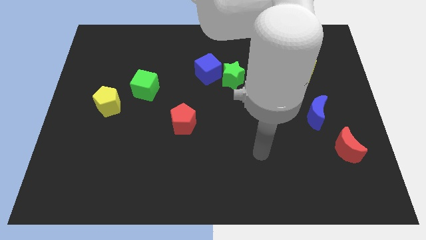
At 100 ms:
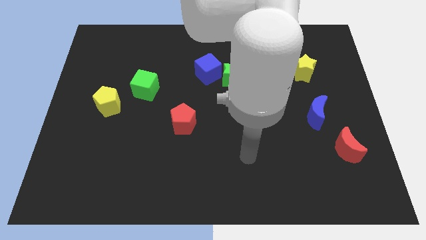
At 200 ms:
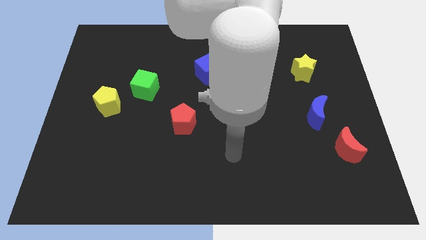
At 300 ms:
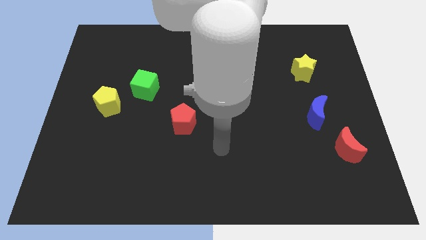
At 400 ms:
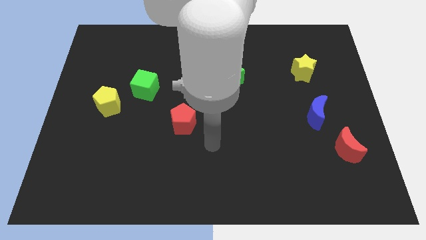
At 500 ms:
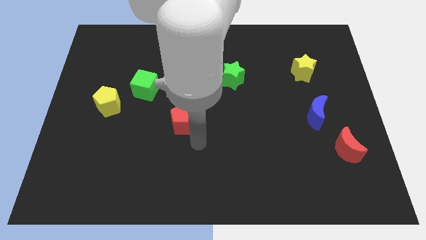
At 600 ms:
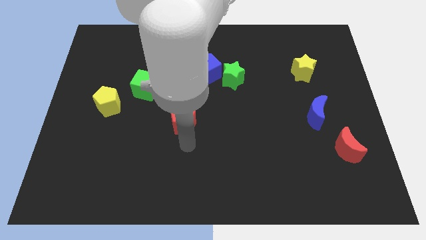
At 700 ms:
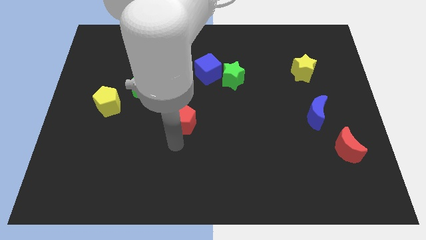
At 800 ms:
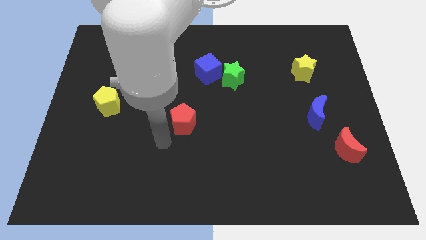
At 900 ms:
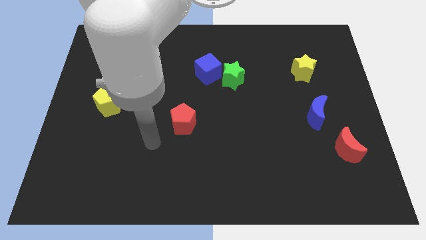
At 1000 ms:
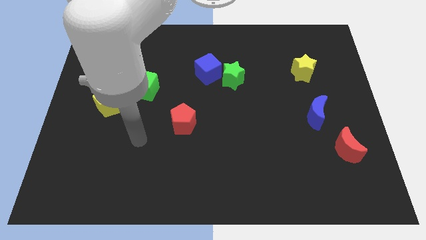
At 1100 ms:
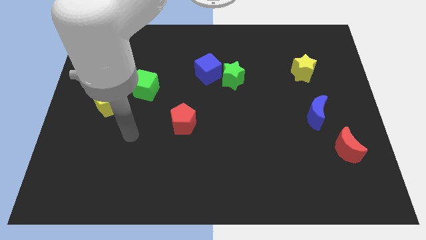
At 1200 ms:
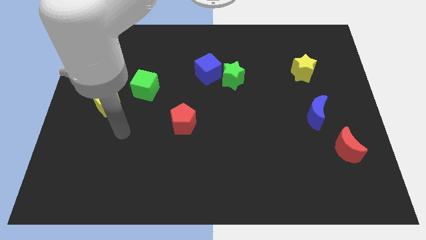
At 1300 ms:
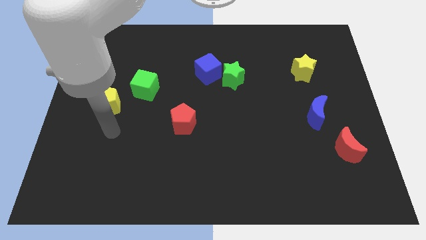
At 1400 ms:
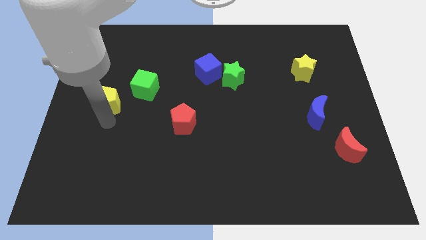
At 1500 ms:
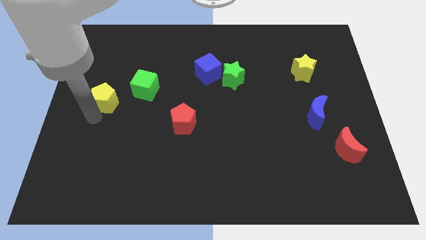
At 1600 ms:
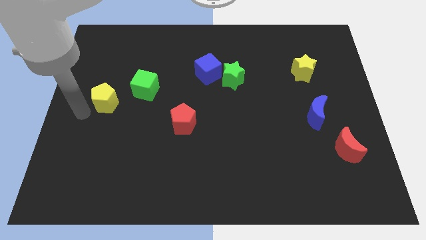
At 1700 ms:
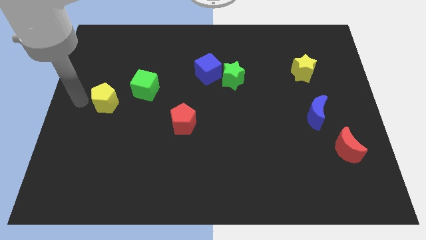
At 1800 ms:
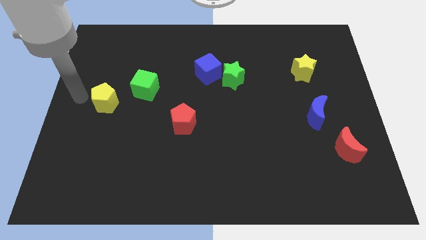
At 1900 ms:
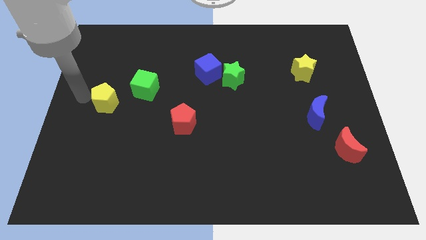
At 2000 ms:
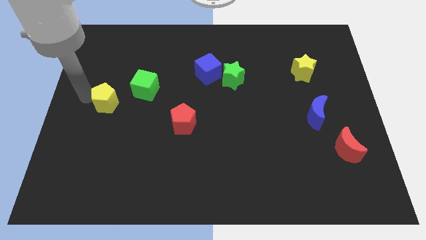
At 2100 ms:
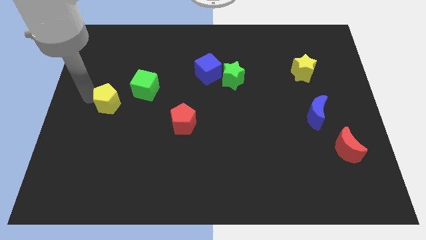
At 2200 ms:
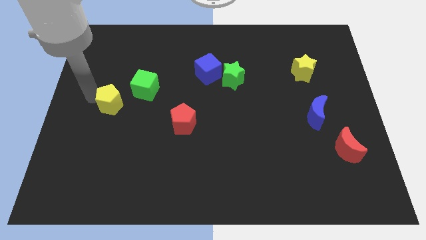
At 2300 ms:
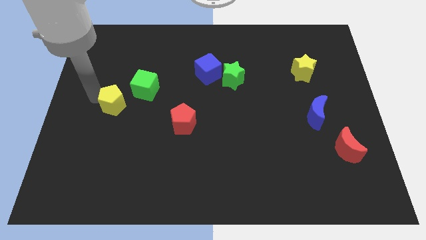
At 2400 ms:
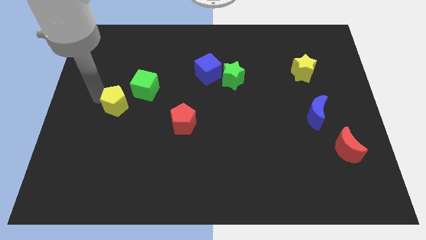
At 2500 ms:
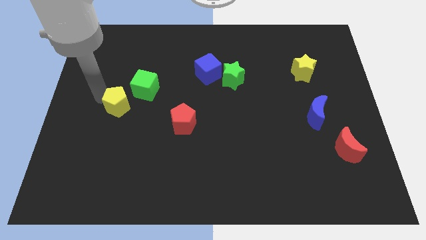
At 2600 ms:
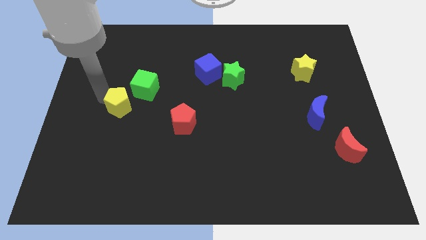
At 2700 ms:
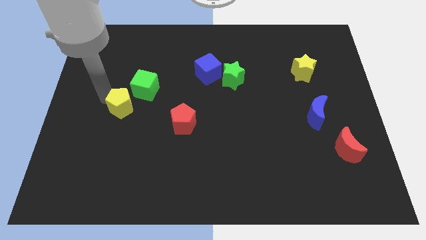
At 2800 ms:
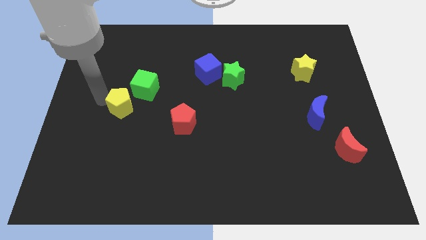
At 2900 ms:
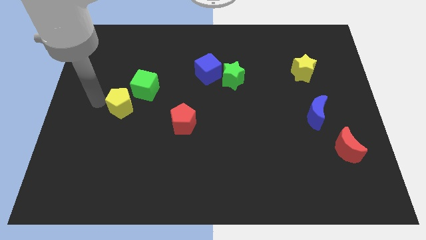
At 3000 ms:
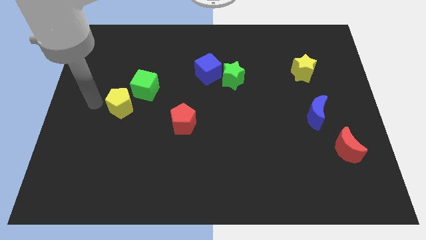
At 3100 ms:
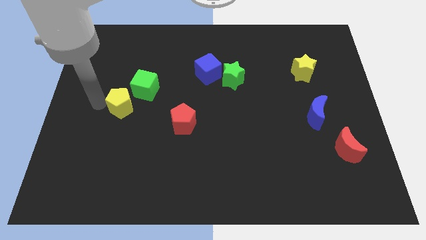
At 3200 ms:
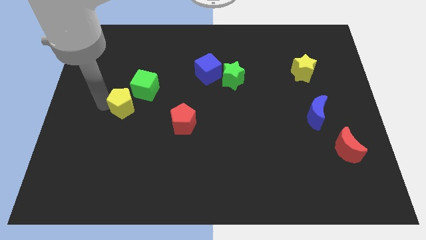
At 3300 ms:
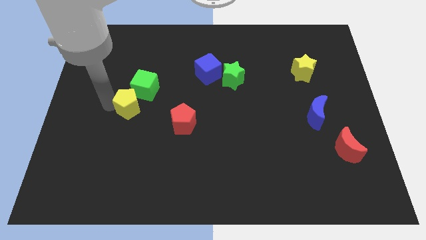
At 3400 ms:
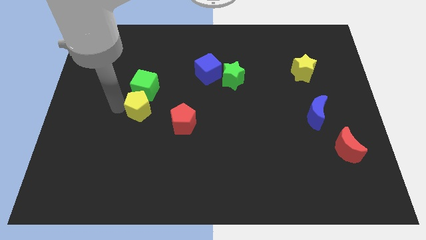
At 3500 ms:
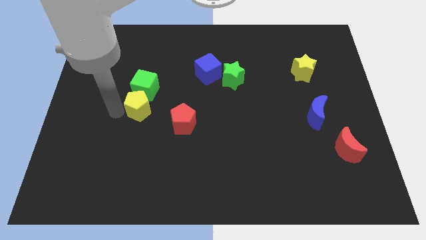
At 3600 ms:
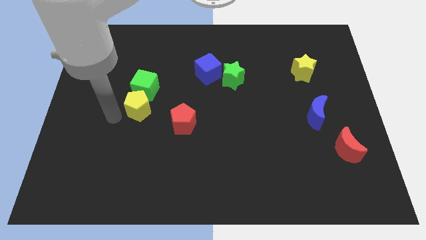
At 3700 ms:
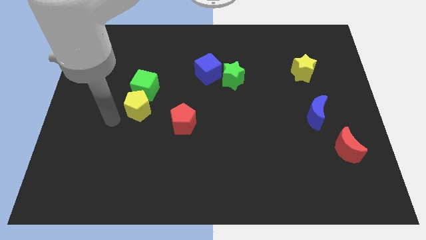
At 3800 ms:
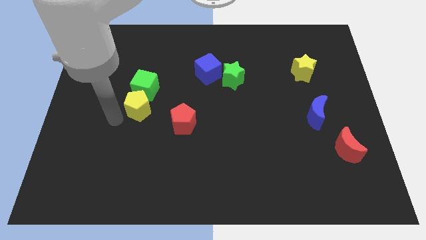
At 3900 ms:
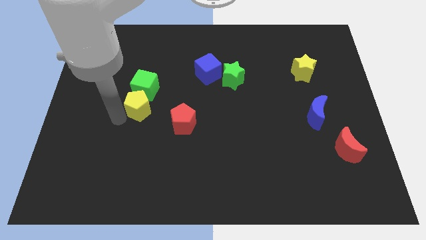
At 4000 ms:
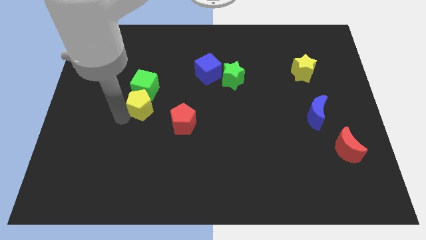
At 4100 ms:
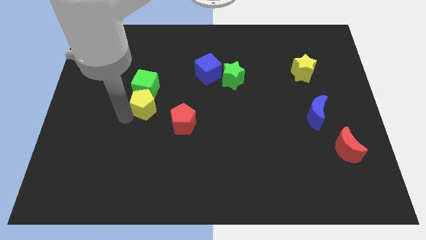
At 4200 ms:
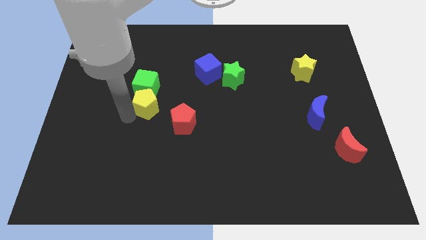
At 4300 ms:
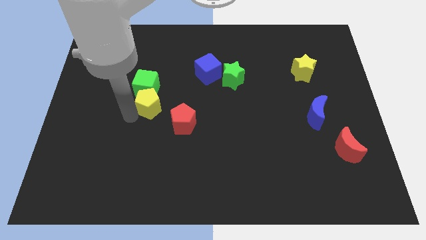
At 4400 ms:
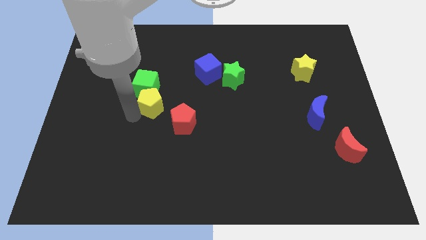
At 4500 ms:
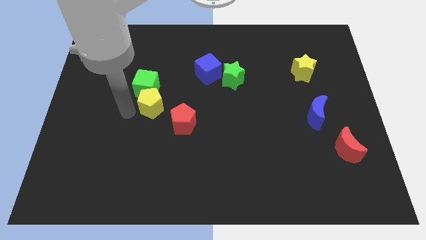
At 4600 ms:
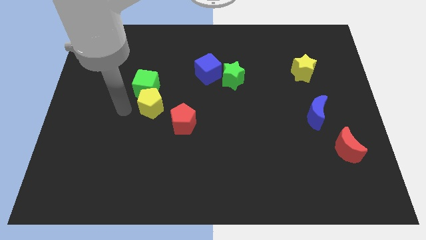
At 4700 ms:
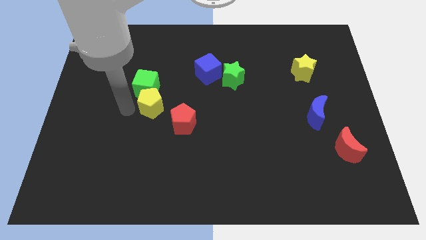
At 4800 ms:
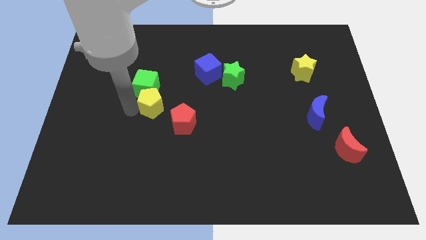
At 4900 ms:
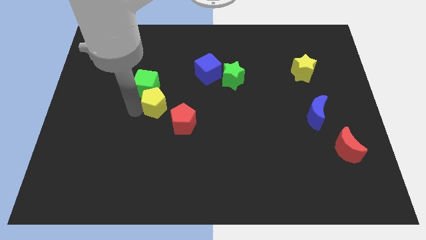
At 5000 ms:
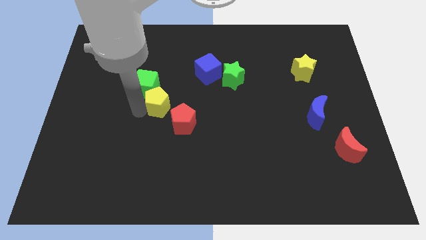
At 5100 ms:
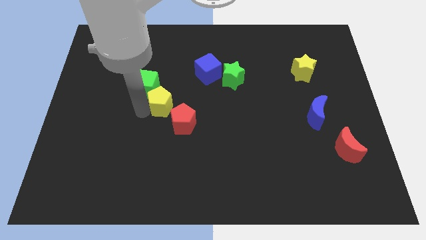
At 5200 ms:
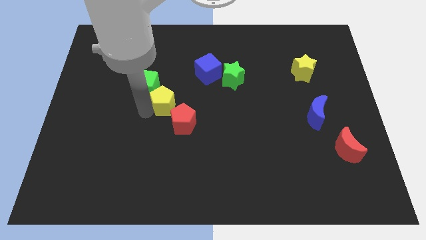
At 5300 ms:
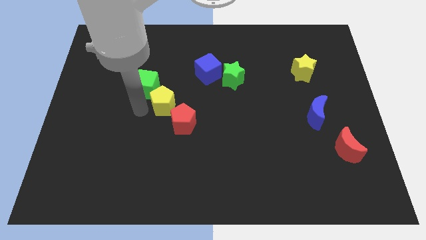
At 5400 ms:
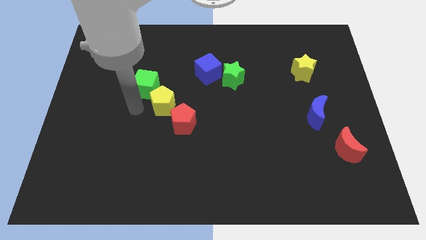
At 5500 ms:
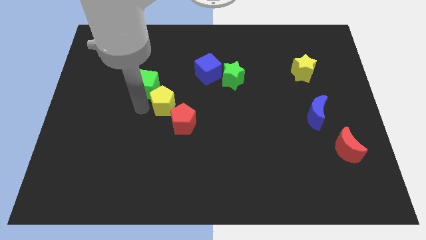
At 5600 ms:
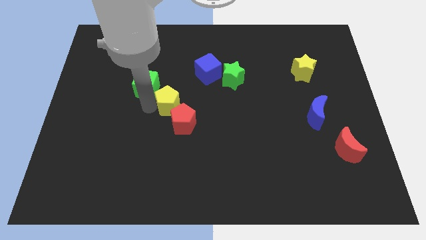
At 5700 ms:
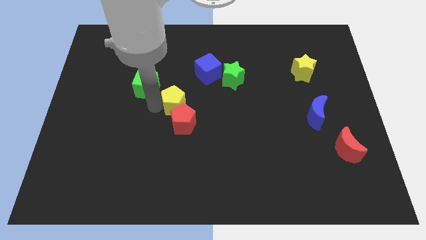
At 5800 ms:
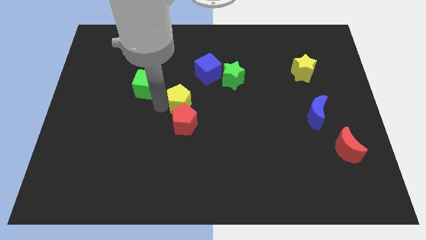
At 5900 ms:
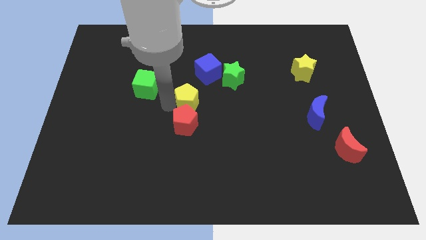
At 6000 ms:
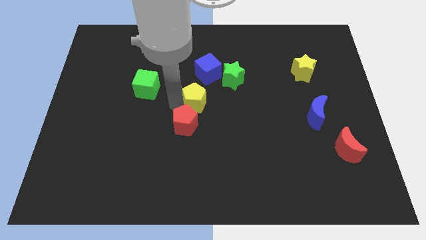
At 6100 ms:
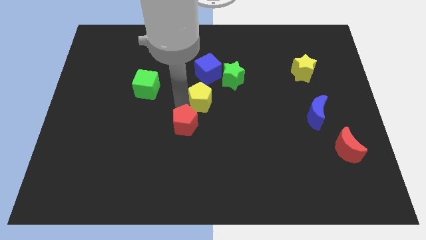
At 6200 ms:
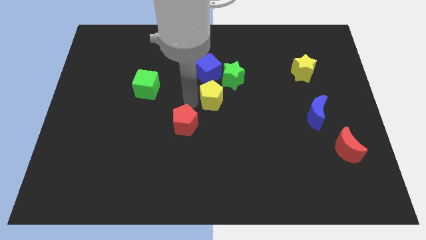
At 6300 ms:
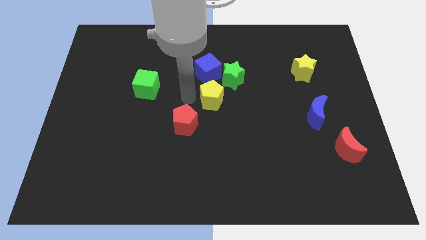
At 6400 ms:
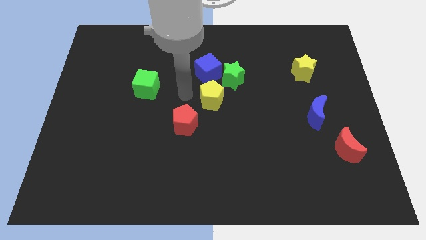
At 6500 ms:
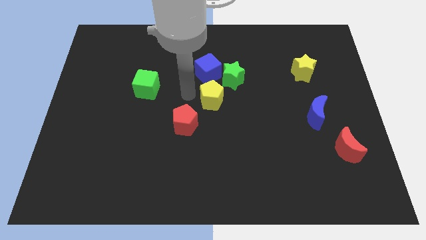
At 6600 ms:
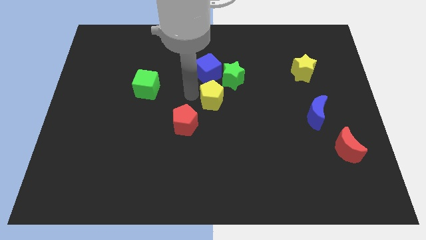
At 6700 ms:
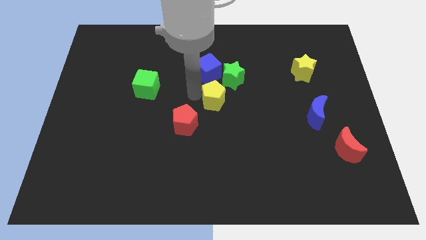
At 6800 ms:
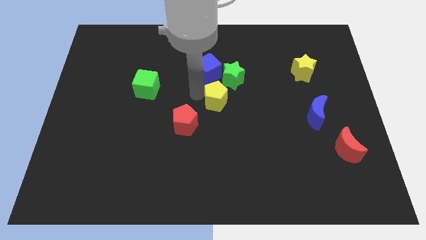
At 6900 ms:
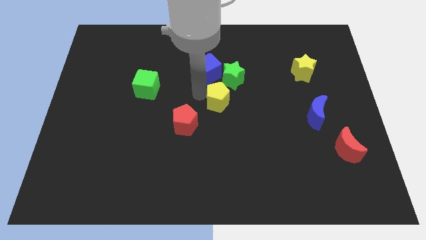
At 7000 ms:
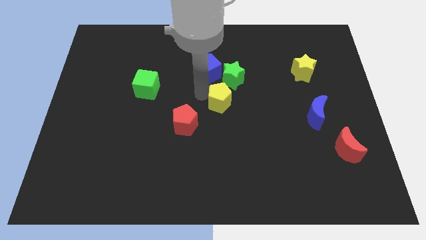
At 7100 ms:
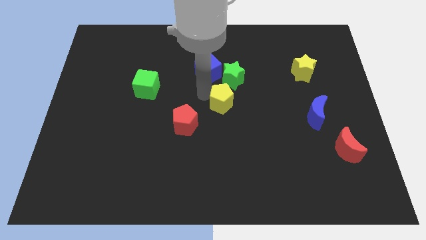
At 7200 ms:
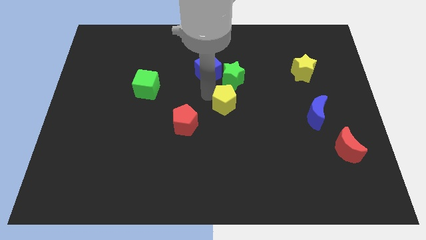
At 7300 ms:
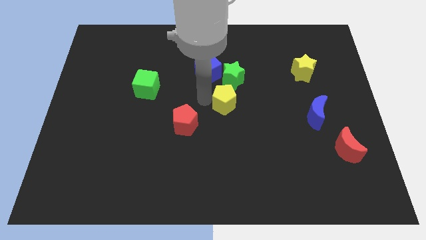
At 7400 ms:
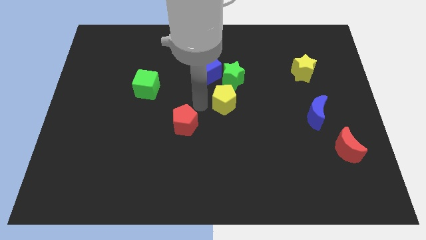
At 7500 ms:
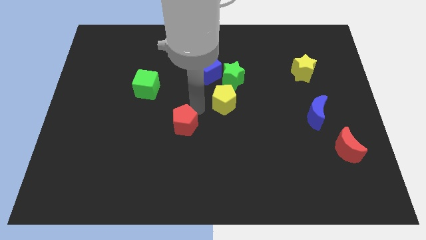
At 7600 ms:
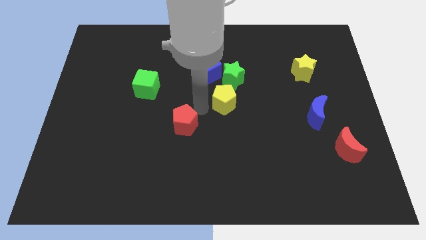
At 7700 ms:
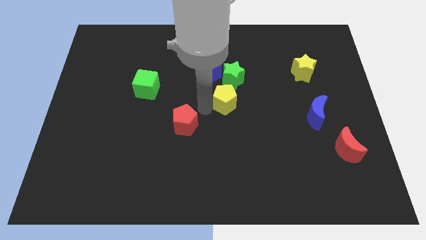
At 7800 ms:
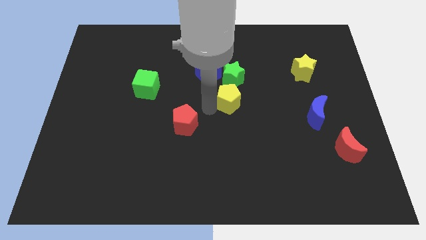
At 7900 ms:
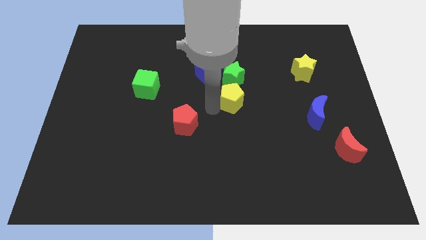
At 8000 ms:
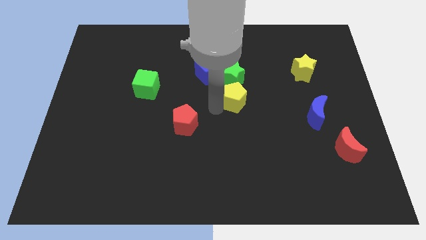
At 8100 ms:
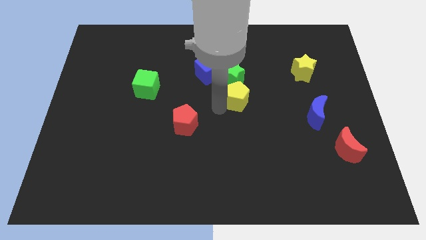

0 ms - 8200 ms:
slide the yellow pentagon to the bottom right side of the green star
